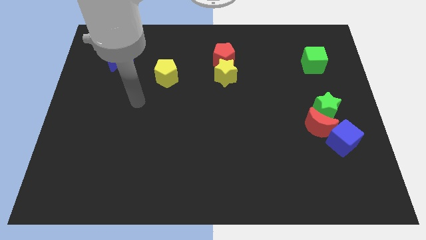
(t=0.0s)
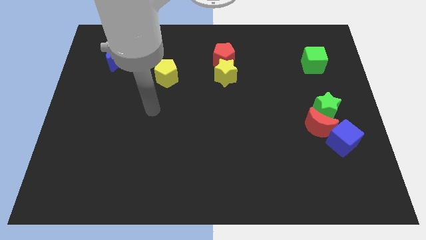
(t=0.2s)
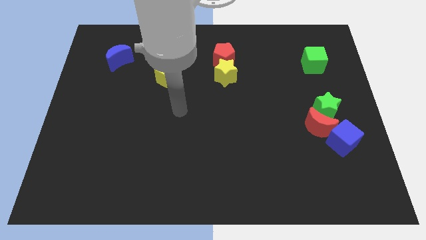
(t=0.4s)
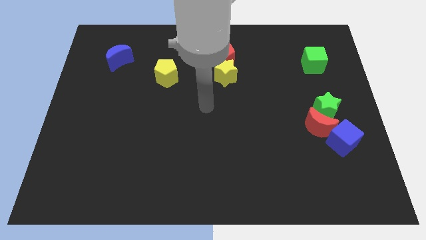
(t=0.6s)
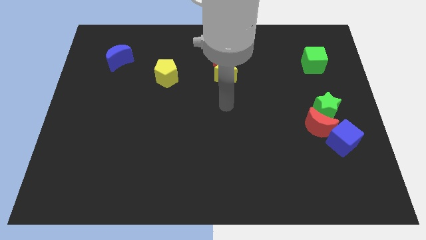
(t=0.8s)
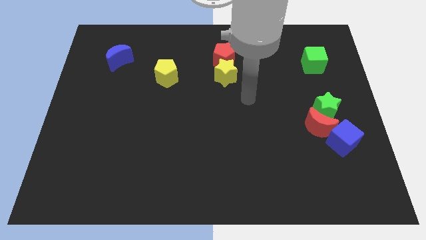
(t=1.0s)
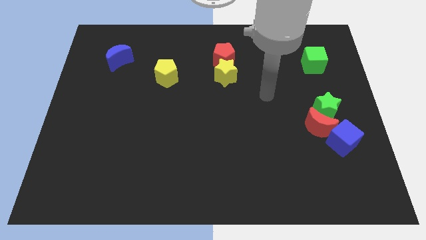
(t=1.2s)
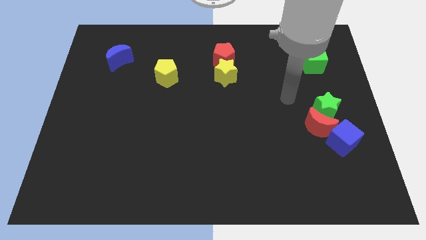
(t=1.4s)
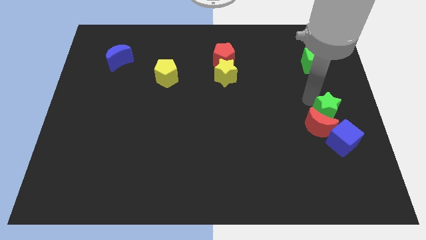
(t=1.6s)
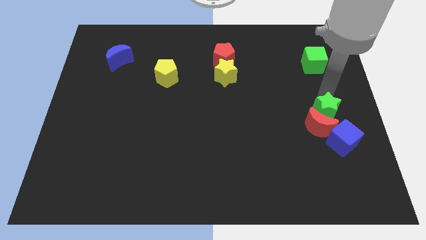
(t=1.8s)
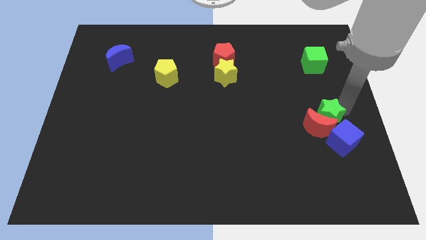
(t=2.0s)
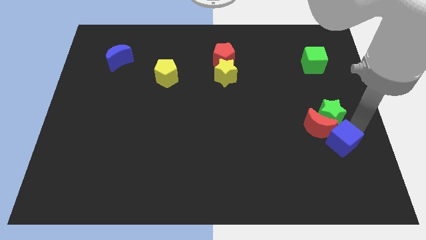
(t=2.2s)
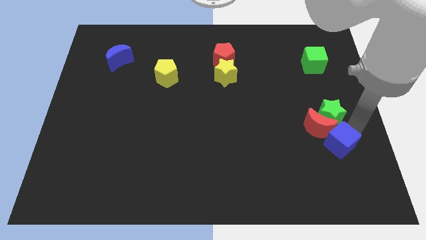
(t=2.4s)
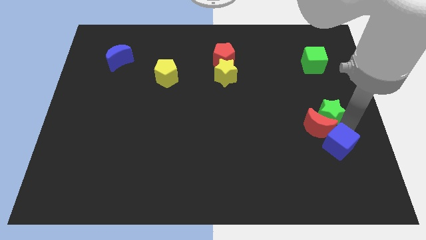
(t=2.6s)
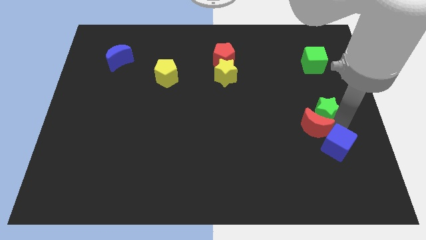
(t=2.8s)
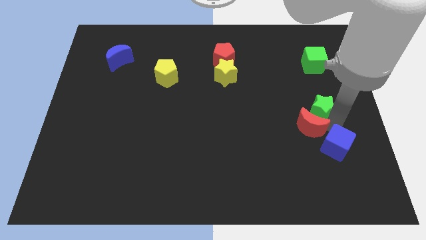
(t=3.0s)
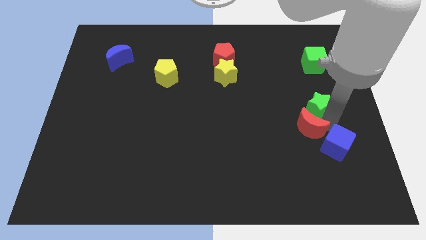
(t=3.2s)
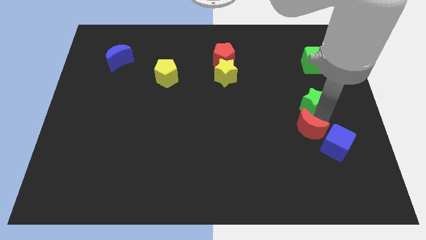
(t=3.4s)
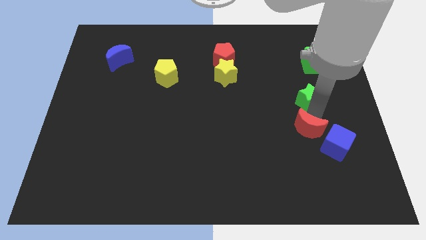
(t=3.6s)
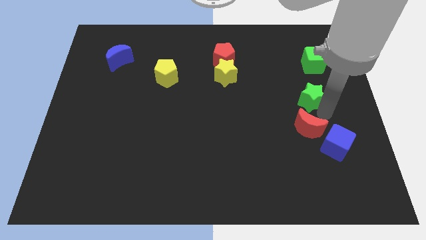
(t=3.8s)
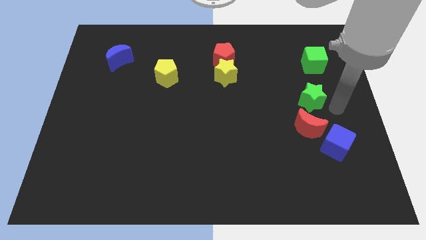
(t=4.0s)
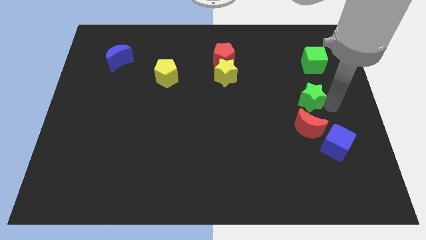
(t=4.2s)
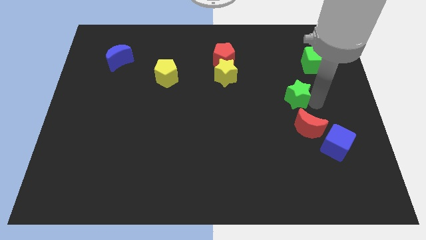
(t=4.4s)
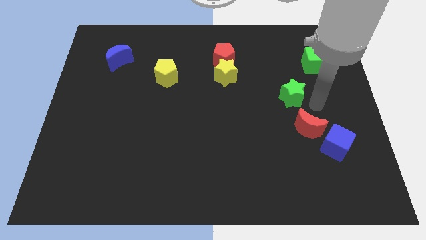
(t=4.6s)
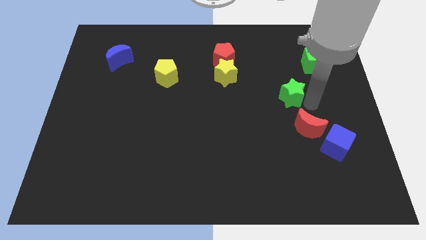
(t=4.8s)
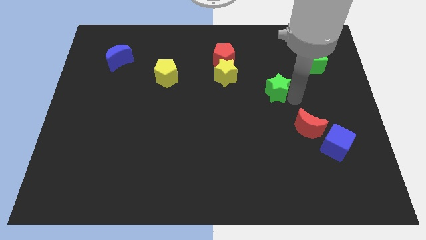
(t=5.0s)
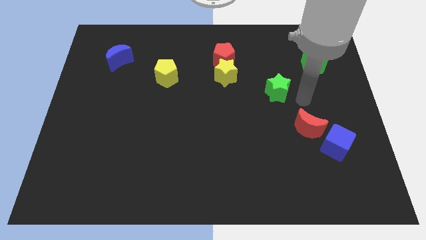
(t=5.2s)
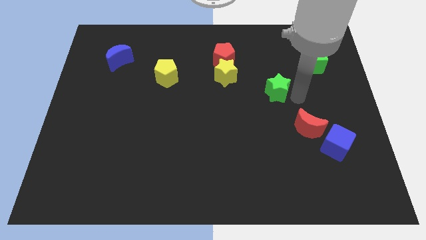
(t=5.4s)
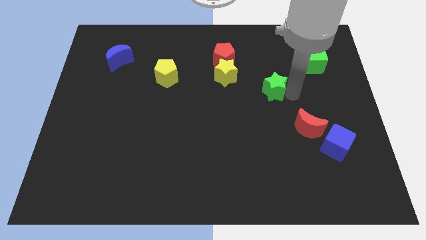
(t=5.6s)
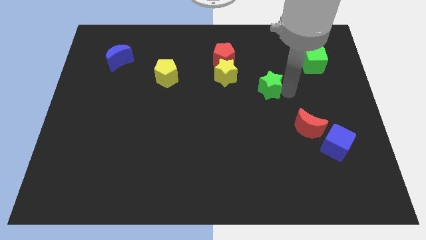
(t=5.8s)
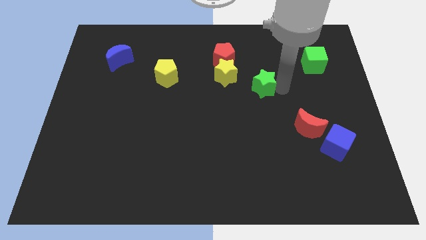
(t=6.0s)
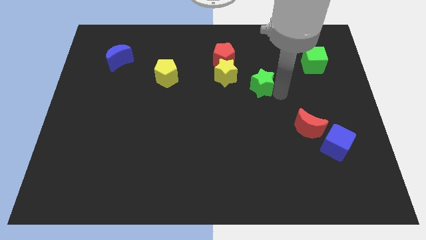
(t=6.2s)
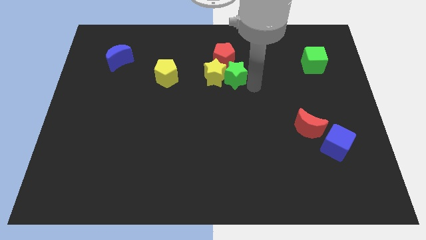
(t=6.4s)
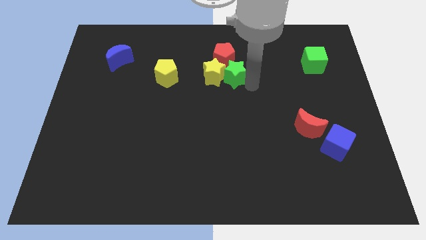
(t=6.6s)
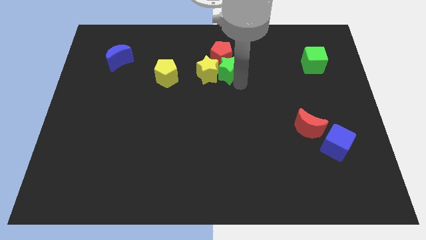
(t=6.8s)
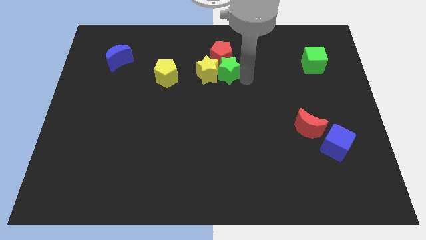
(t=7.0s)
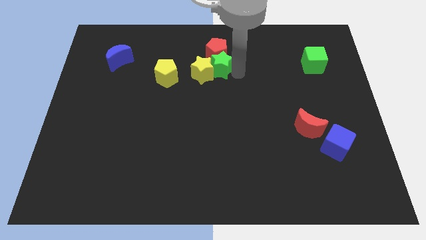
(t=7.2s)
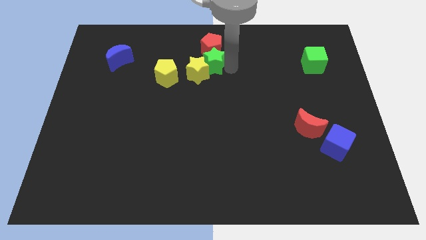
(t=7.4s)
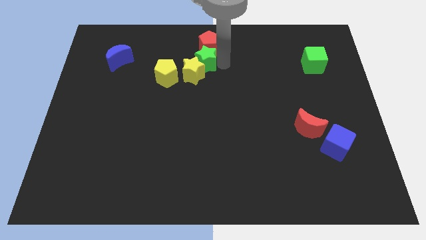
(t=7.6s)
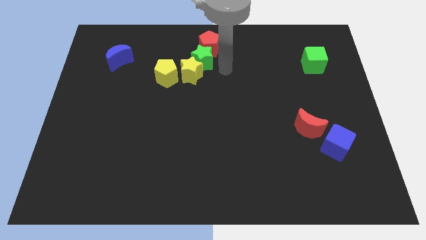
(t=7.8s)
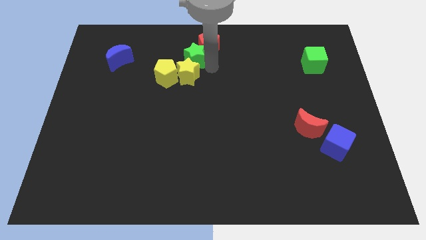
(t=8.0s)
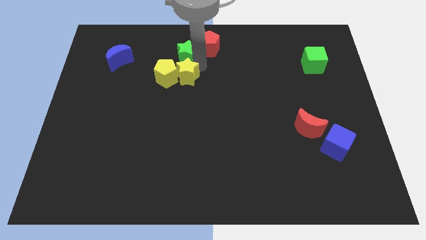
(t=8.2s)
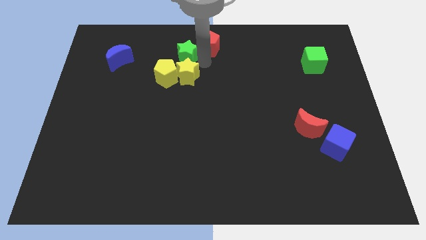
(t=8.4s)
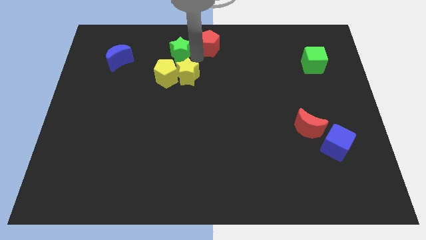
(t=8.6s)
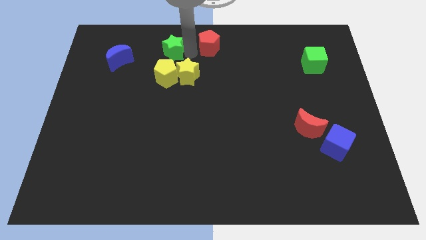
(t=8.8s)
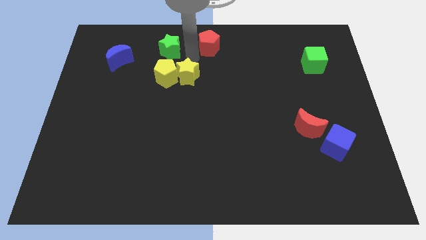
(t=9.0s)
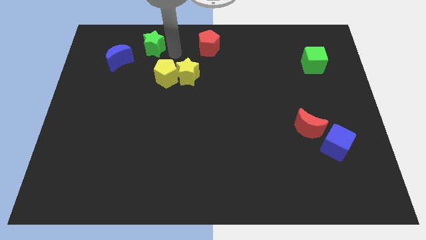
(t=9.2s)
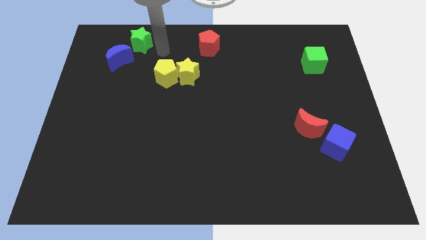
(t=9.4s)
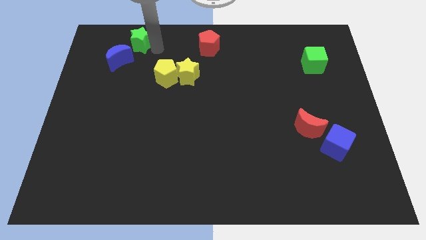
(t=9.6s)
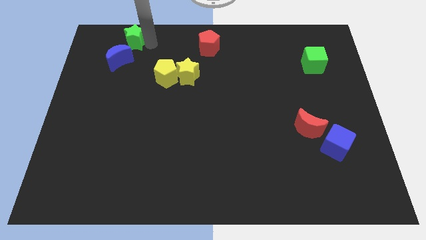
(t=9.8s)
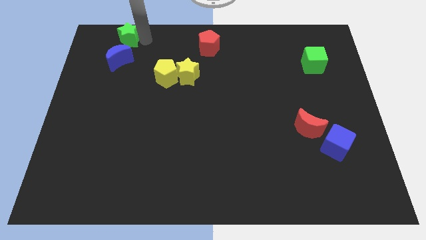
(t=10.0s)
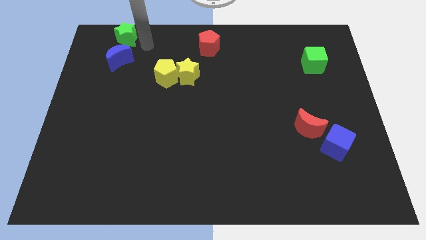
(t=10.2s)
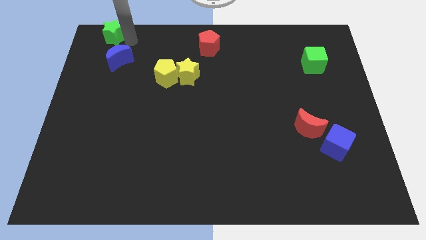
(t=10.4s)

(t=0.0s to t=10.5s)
slide the green star to the upper left corner

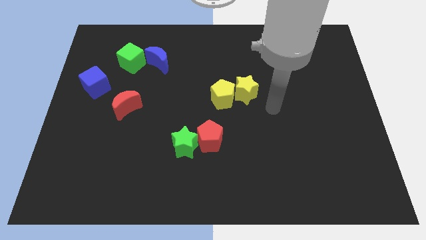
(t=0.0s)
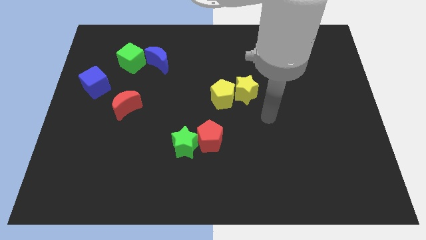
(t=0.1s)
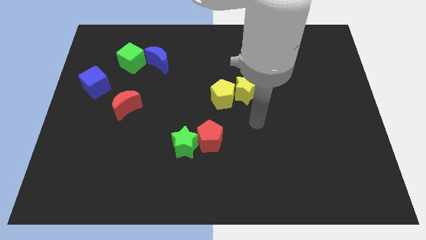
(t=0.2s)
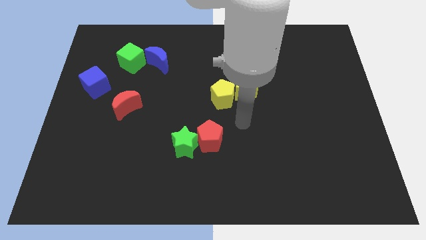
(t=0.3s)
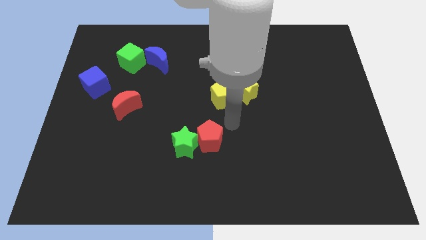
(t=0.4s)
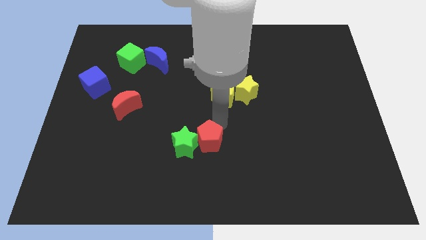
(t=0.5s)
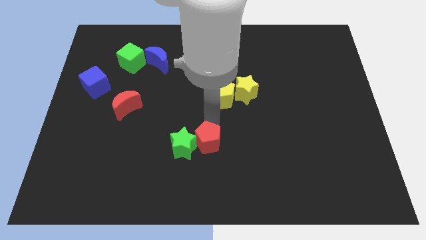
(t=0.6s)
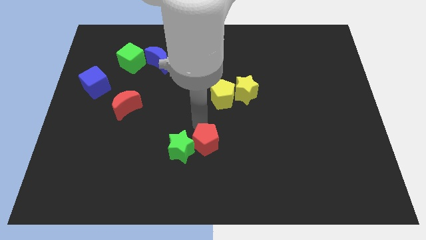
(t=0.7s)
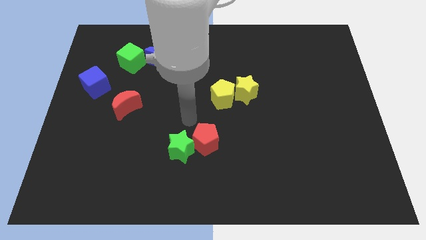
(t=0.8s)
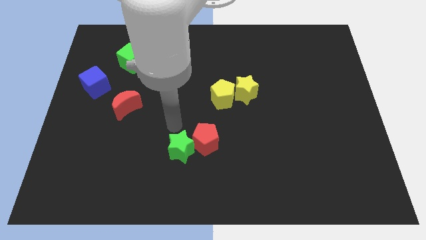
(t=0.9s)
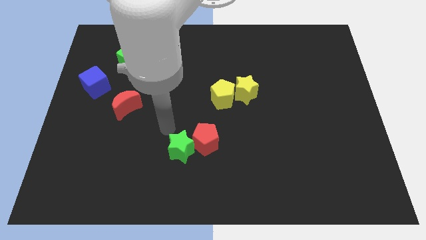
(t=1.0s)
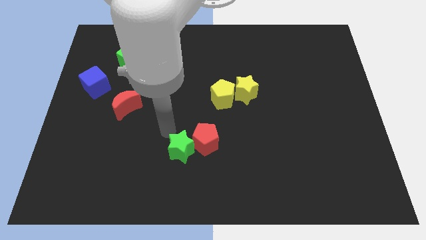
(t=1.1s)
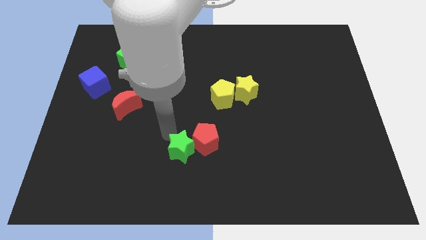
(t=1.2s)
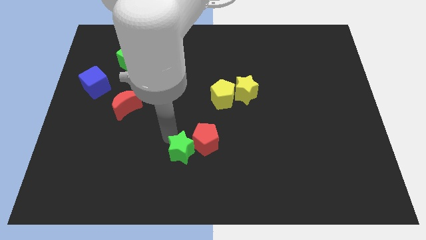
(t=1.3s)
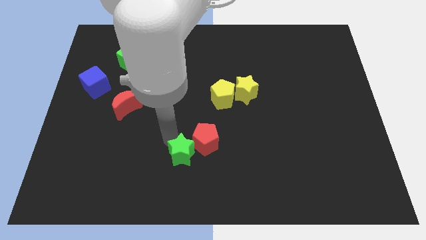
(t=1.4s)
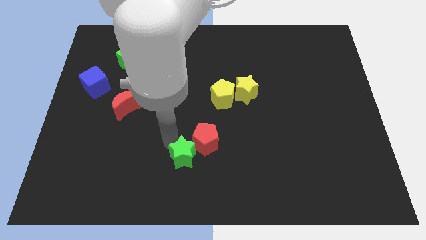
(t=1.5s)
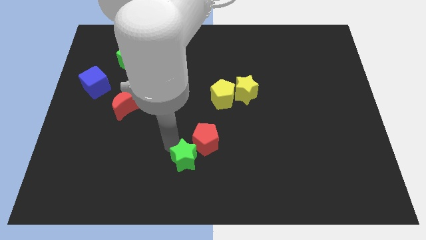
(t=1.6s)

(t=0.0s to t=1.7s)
move the green star to the bottom side
